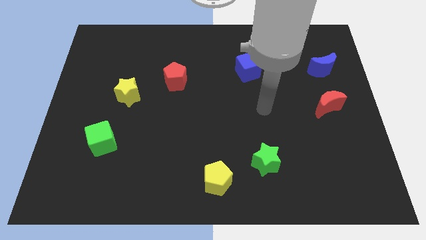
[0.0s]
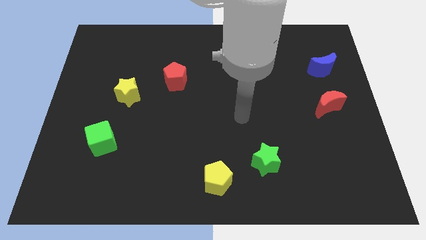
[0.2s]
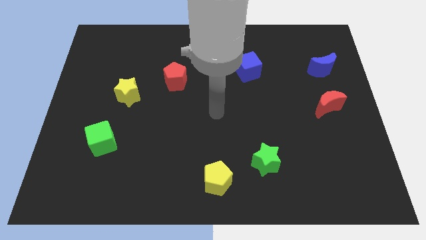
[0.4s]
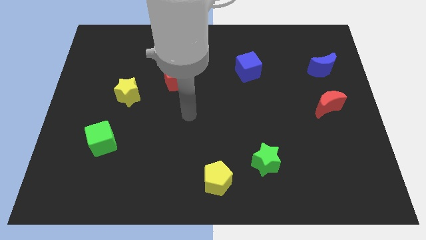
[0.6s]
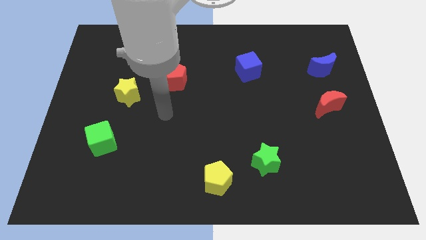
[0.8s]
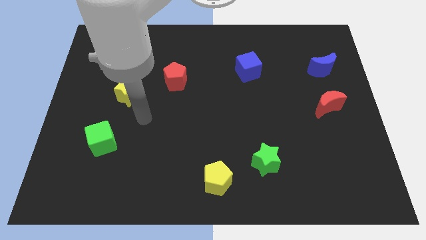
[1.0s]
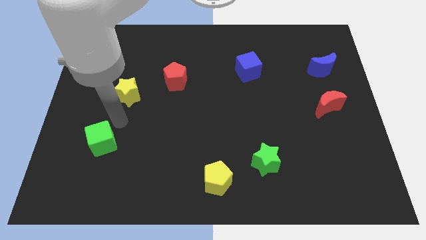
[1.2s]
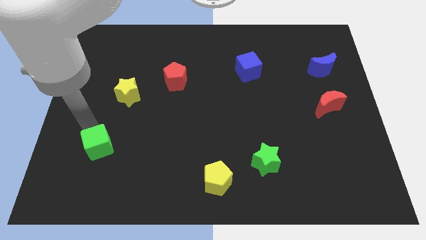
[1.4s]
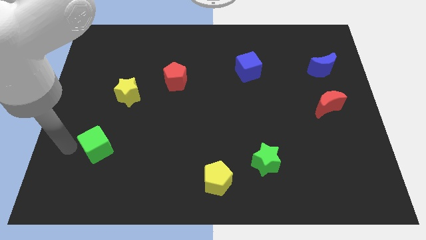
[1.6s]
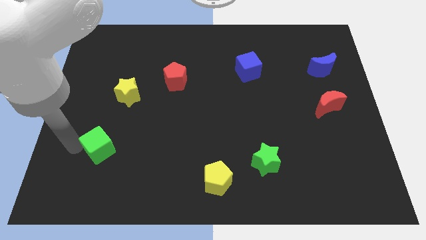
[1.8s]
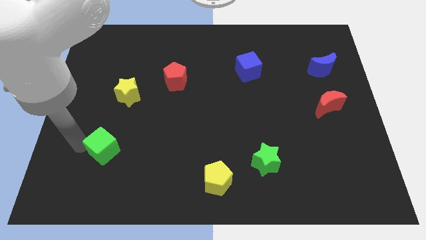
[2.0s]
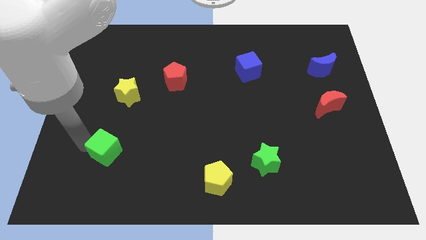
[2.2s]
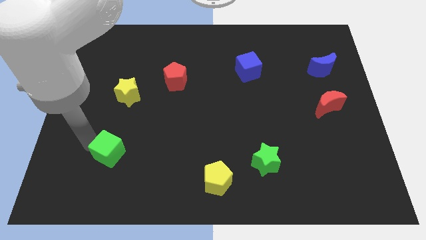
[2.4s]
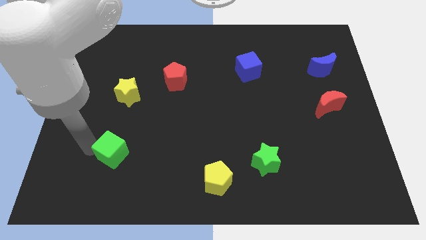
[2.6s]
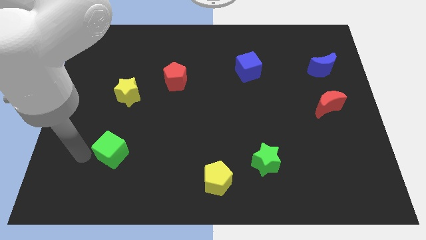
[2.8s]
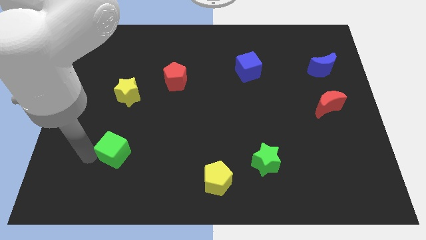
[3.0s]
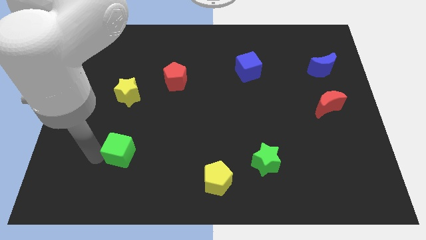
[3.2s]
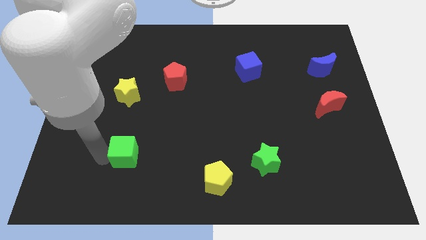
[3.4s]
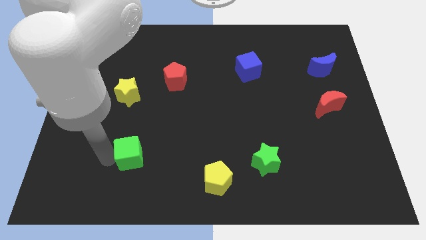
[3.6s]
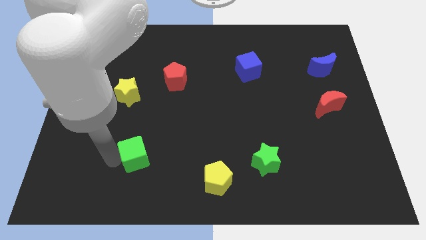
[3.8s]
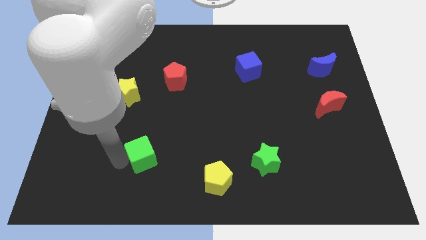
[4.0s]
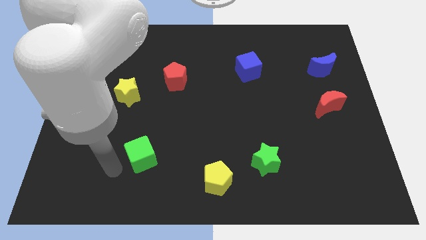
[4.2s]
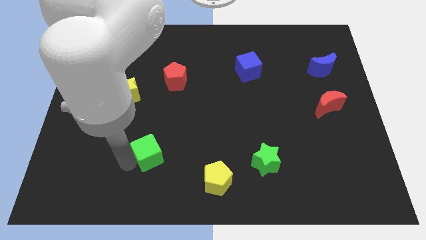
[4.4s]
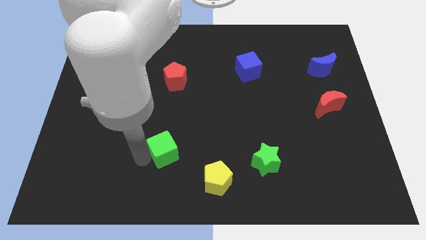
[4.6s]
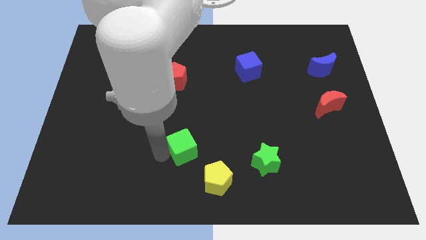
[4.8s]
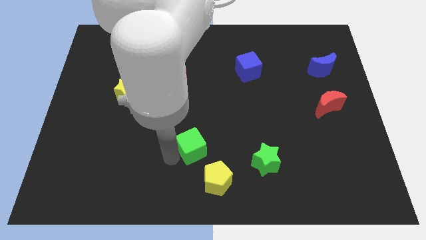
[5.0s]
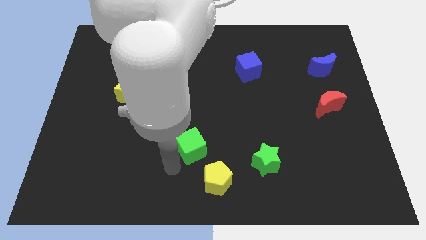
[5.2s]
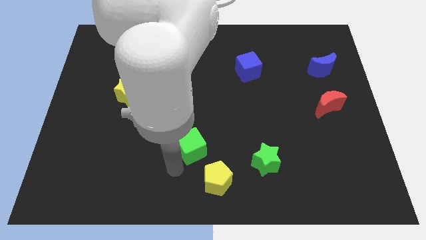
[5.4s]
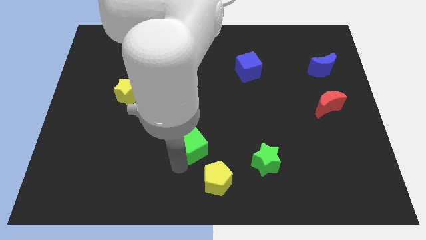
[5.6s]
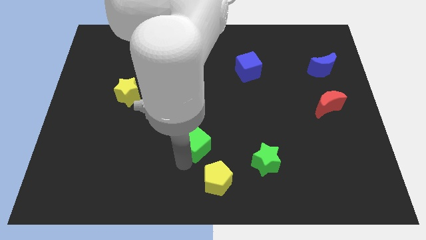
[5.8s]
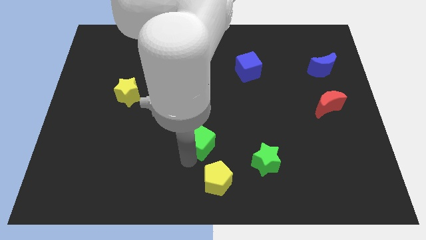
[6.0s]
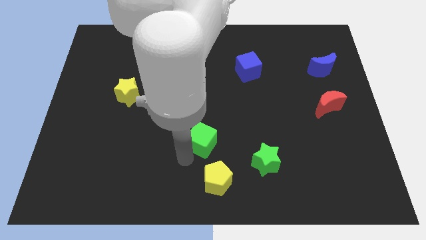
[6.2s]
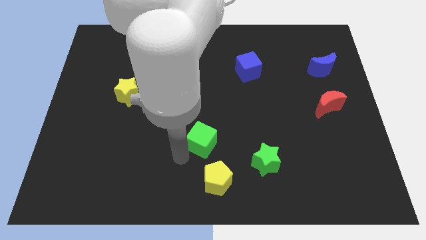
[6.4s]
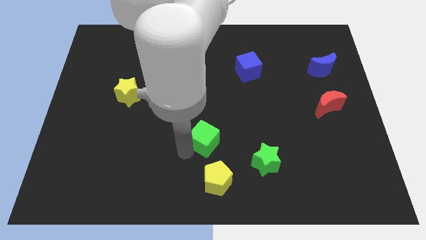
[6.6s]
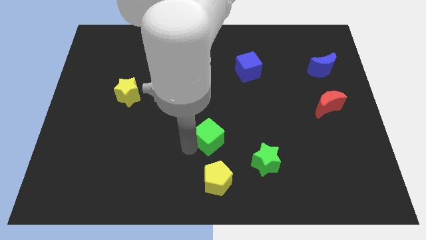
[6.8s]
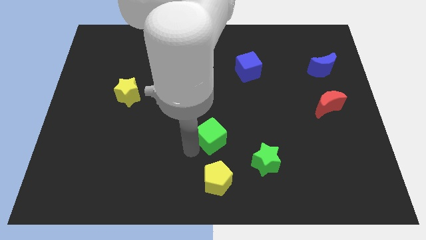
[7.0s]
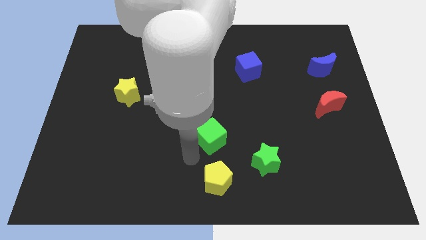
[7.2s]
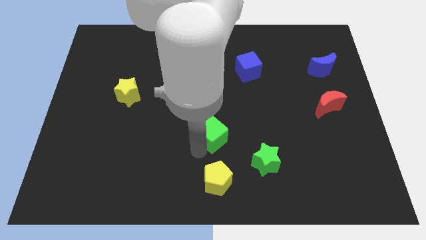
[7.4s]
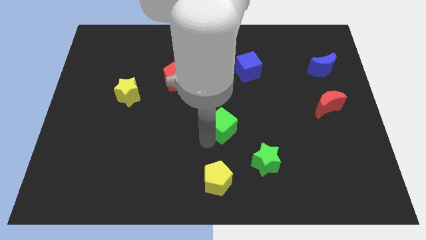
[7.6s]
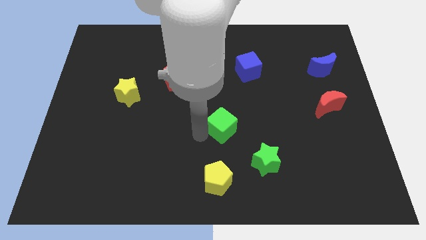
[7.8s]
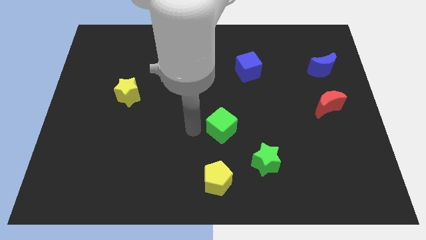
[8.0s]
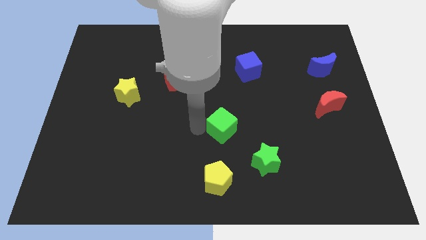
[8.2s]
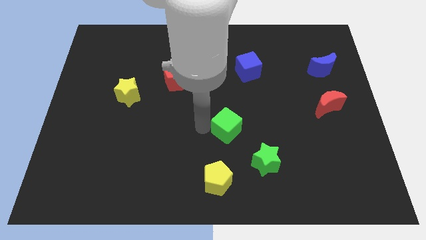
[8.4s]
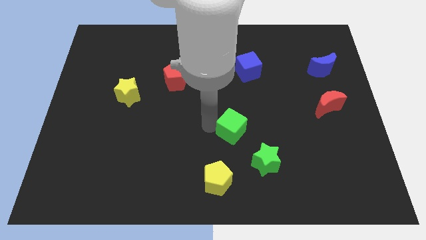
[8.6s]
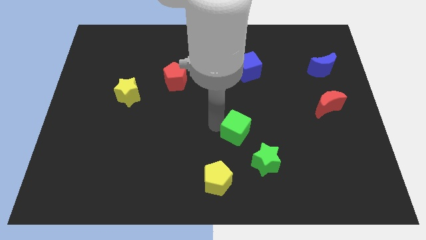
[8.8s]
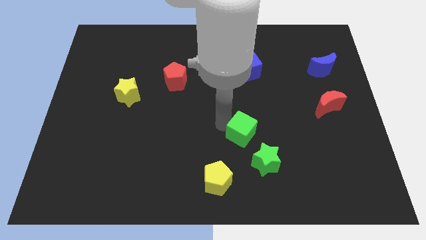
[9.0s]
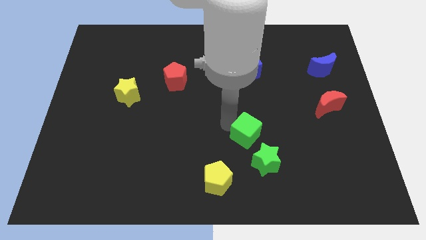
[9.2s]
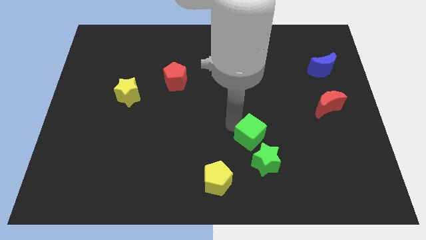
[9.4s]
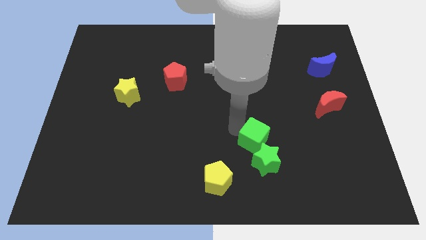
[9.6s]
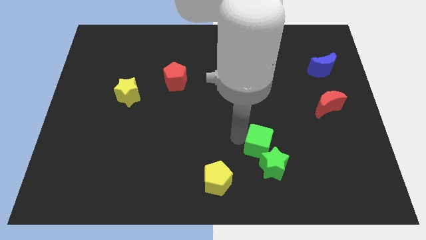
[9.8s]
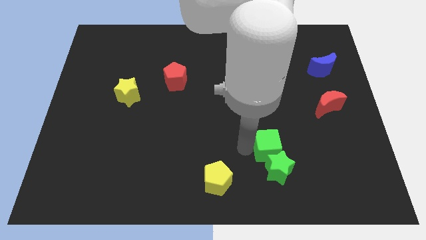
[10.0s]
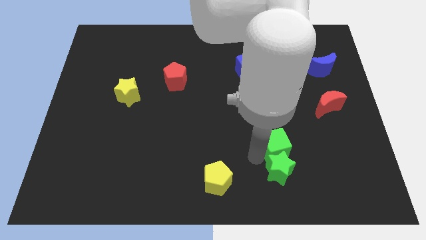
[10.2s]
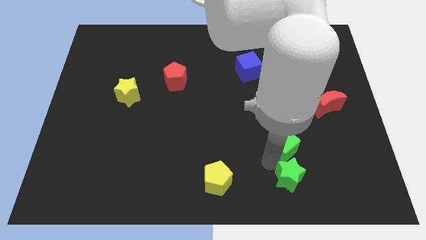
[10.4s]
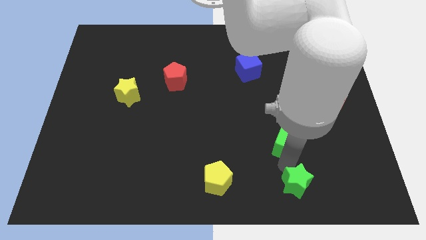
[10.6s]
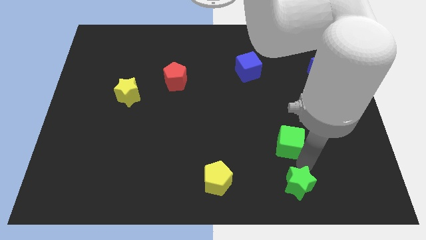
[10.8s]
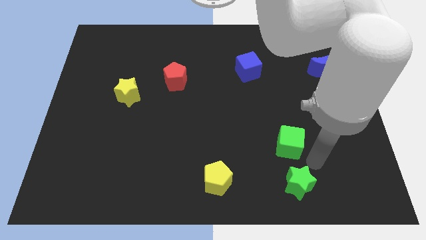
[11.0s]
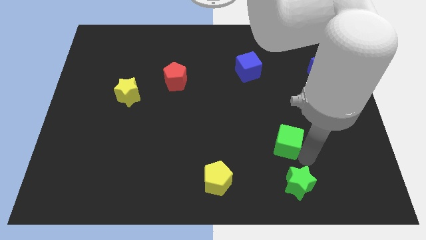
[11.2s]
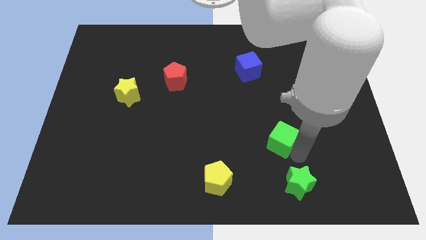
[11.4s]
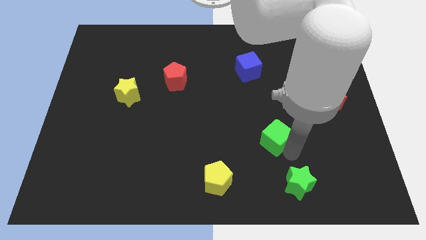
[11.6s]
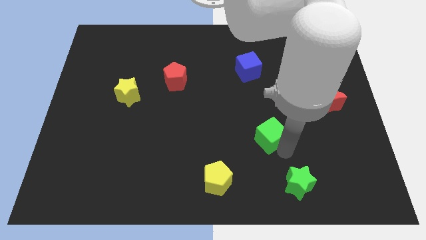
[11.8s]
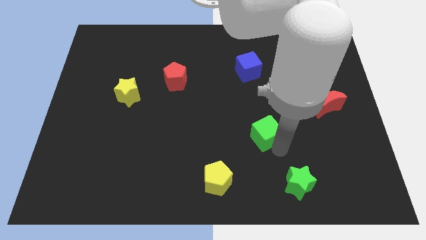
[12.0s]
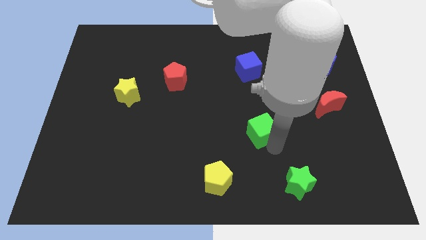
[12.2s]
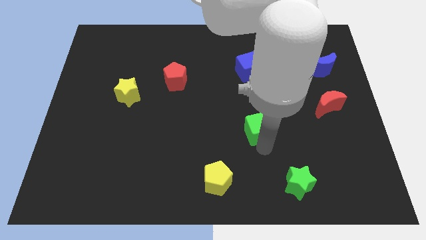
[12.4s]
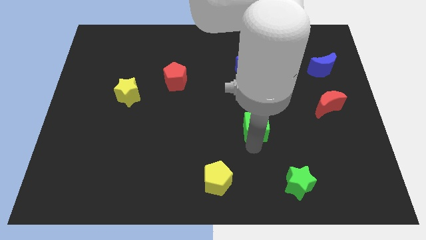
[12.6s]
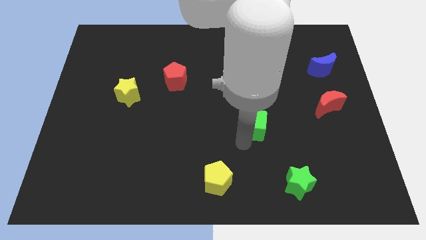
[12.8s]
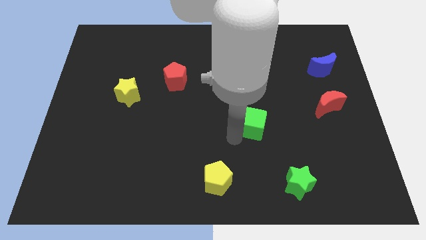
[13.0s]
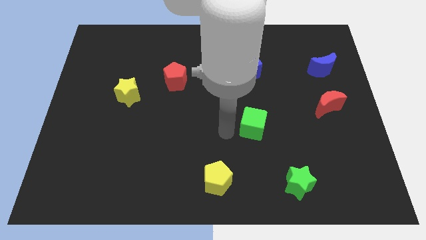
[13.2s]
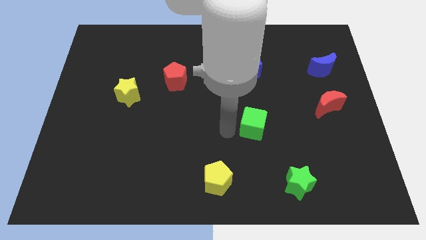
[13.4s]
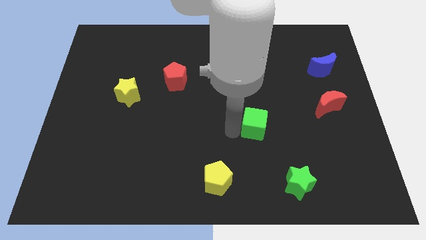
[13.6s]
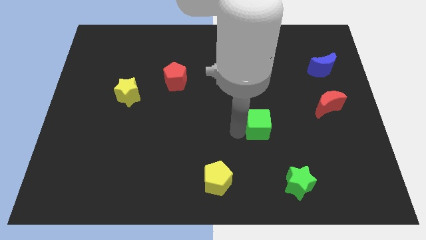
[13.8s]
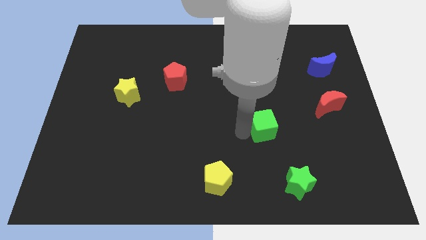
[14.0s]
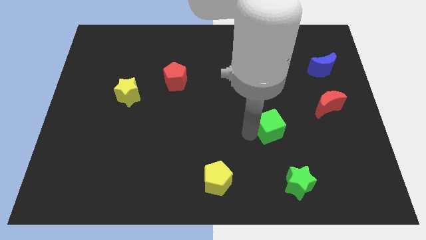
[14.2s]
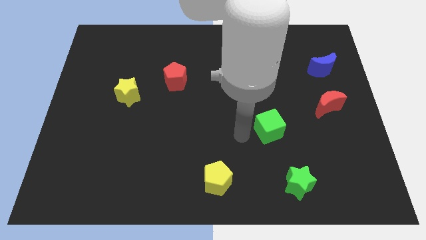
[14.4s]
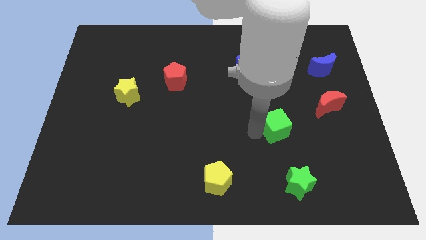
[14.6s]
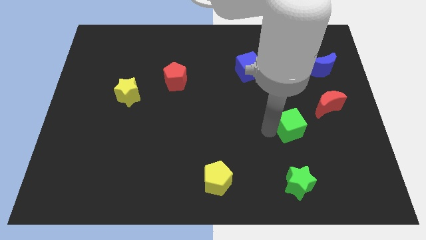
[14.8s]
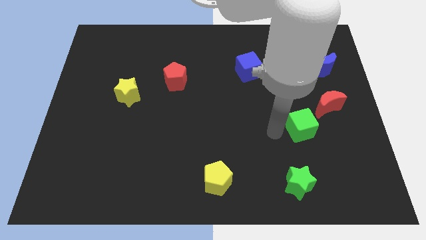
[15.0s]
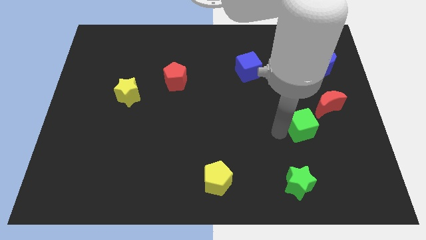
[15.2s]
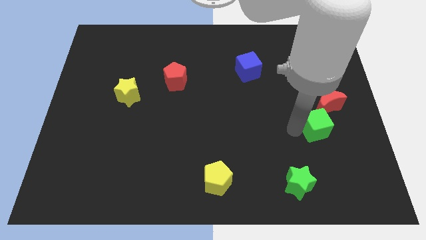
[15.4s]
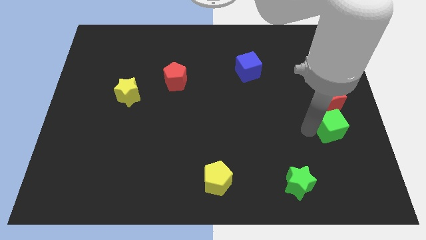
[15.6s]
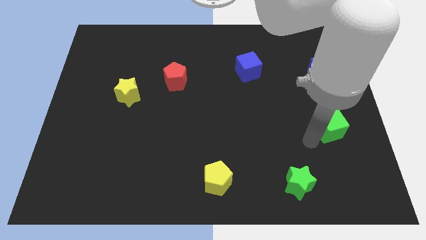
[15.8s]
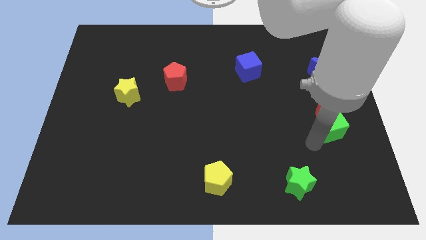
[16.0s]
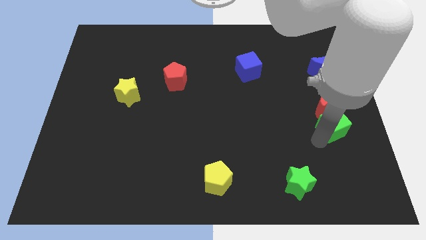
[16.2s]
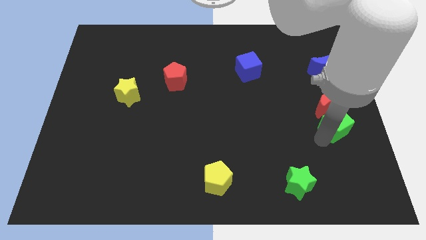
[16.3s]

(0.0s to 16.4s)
move the green cube to the right side
